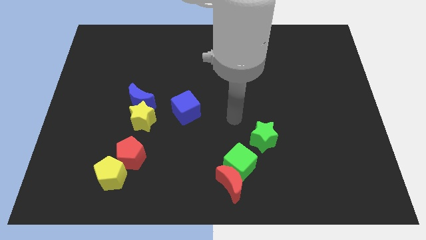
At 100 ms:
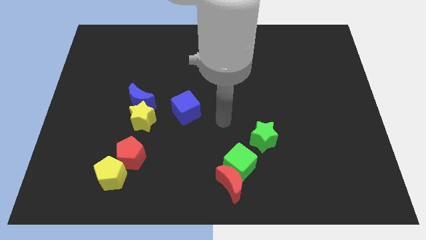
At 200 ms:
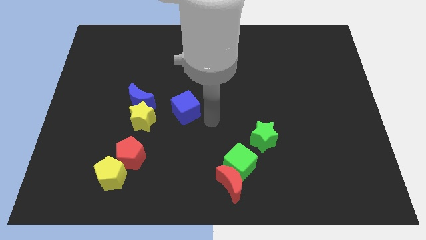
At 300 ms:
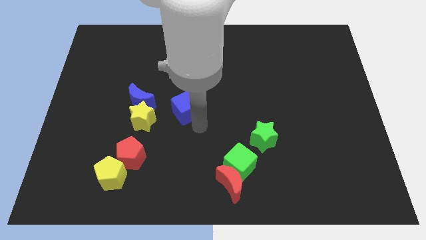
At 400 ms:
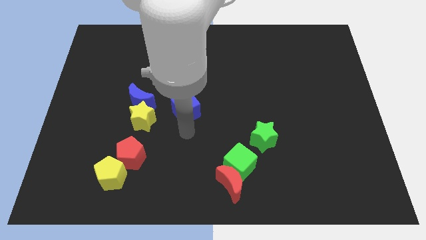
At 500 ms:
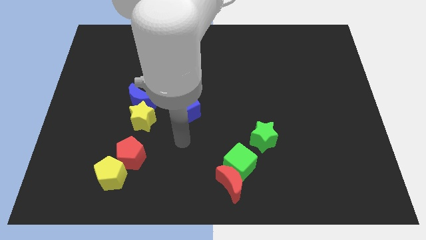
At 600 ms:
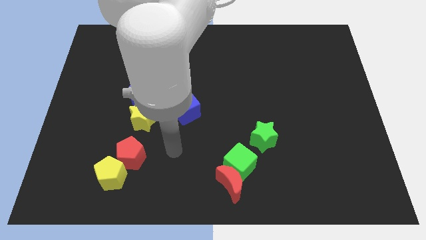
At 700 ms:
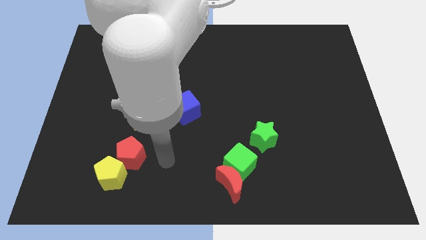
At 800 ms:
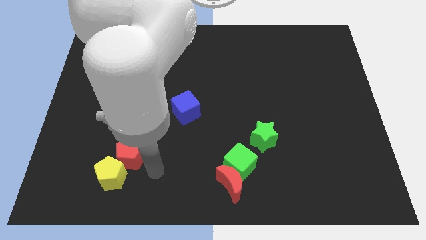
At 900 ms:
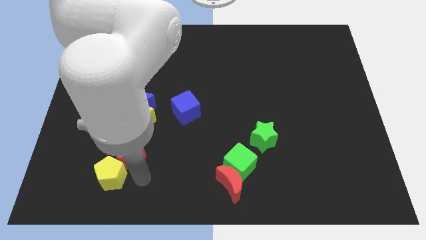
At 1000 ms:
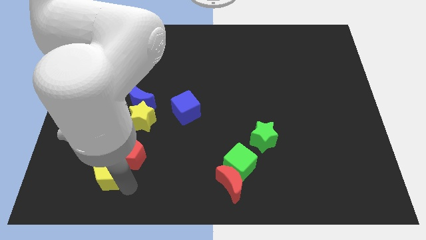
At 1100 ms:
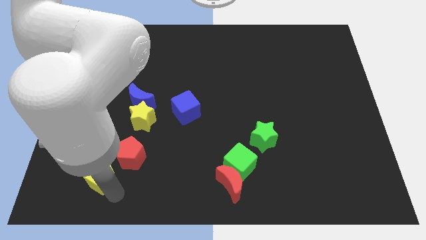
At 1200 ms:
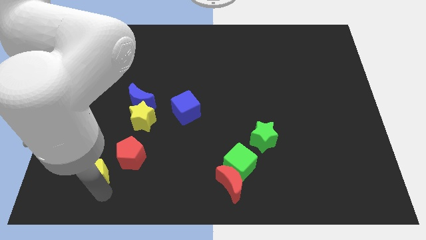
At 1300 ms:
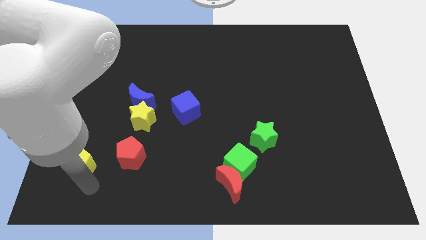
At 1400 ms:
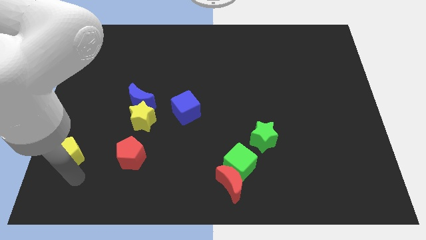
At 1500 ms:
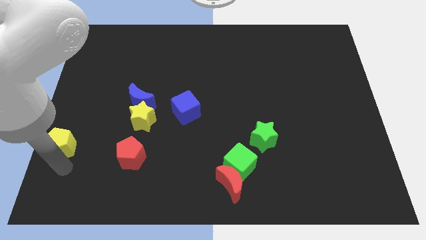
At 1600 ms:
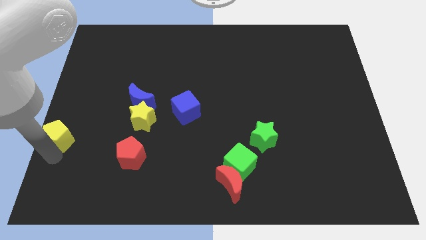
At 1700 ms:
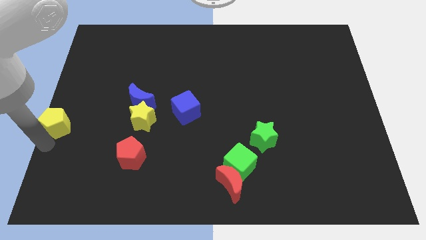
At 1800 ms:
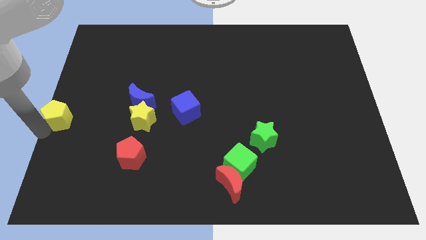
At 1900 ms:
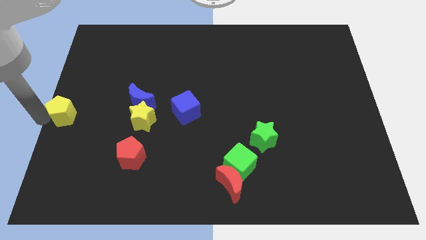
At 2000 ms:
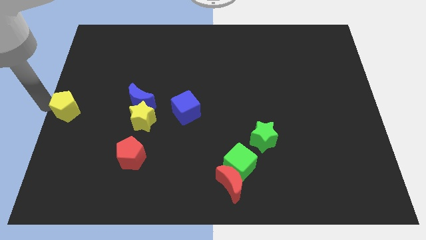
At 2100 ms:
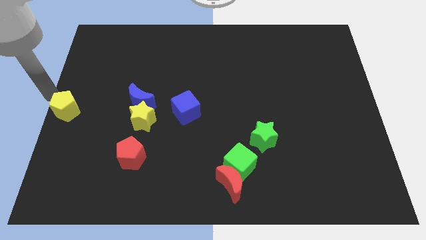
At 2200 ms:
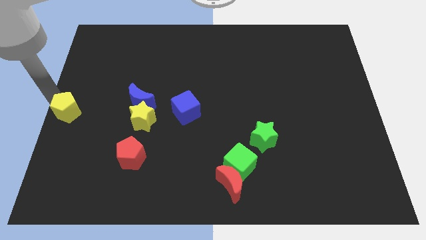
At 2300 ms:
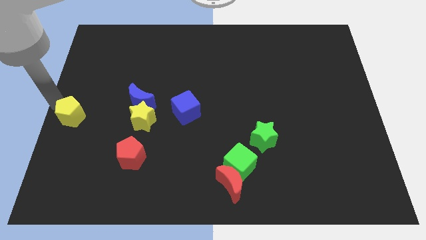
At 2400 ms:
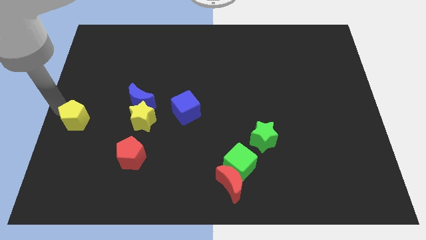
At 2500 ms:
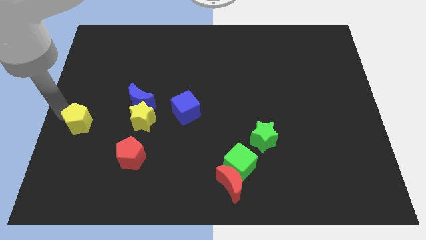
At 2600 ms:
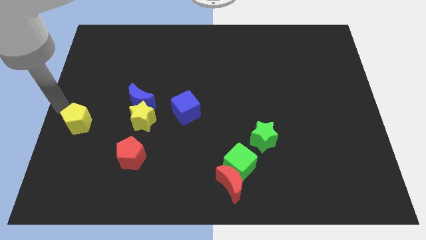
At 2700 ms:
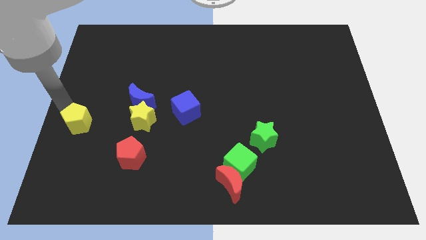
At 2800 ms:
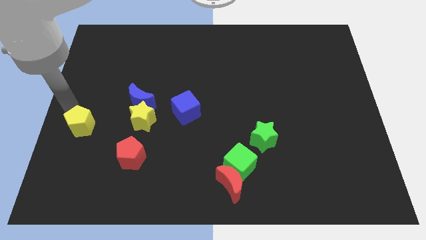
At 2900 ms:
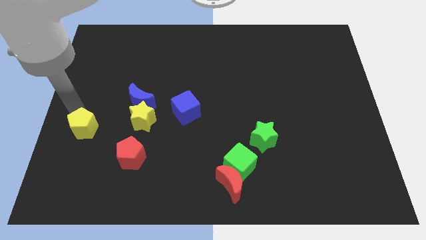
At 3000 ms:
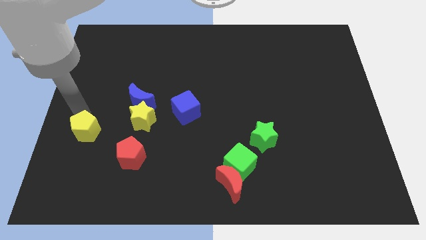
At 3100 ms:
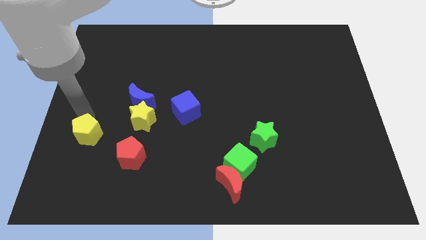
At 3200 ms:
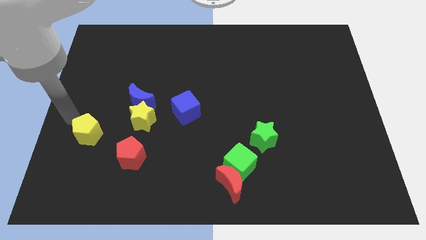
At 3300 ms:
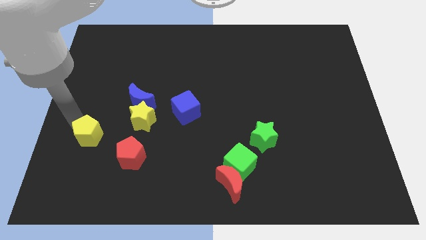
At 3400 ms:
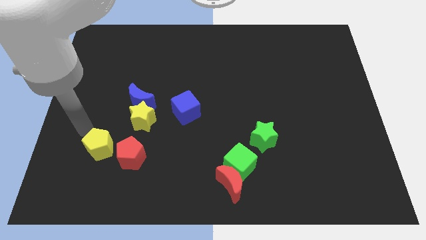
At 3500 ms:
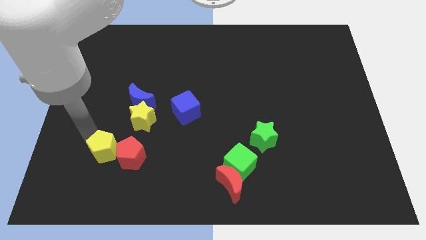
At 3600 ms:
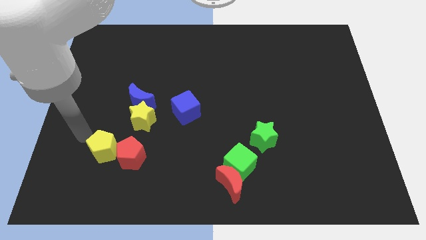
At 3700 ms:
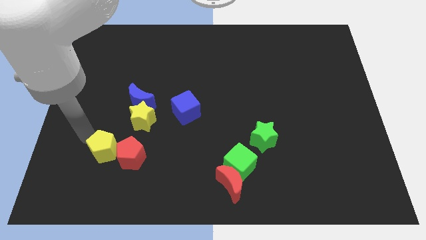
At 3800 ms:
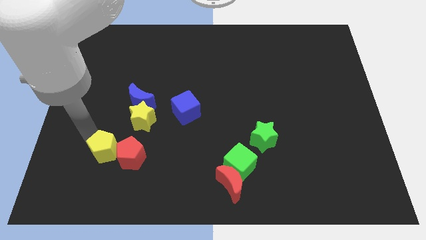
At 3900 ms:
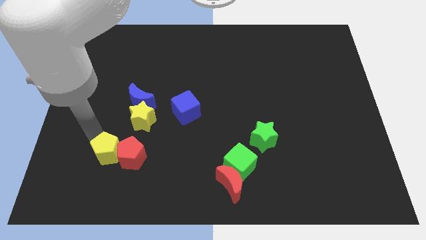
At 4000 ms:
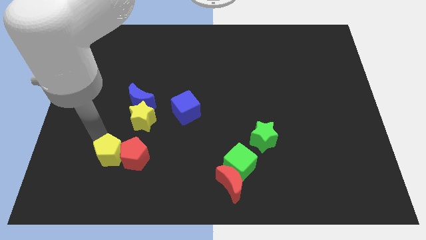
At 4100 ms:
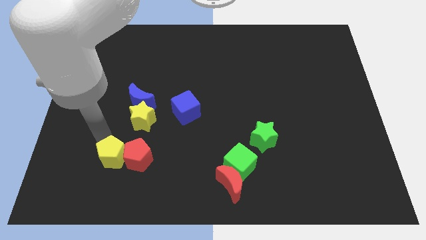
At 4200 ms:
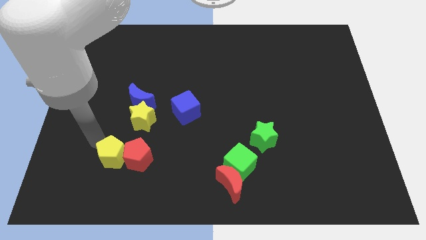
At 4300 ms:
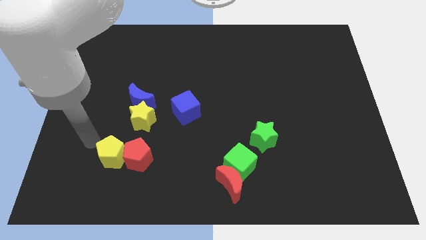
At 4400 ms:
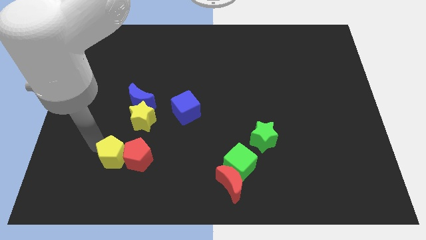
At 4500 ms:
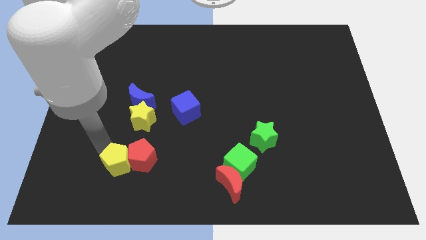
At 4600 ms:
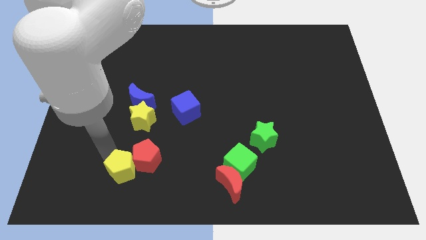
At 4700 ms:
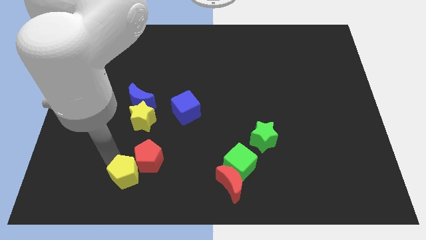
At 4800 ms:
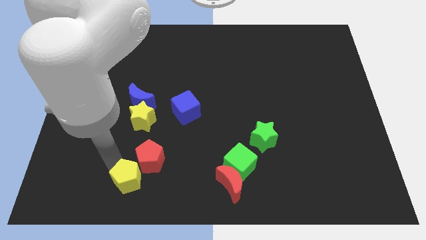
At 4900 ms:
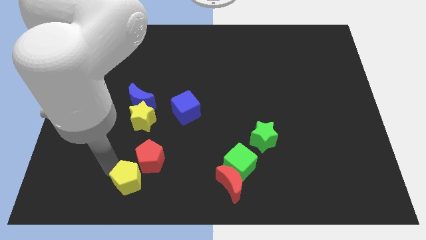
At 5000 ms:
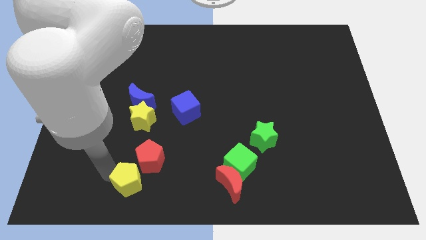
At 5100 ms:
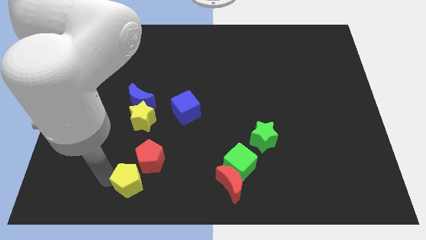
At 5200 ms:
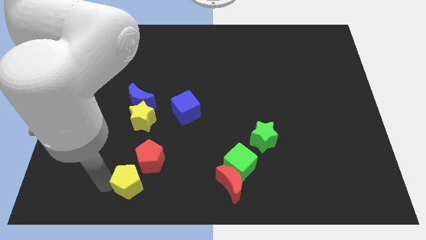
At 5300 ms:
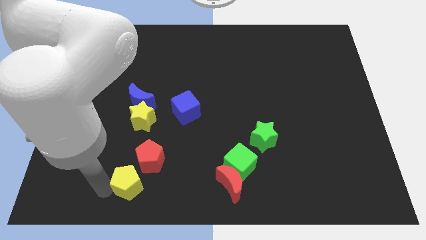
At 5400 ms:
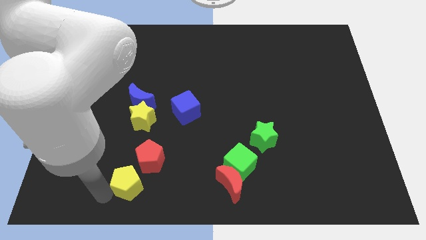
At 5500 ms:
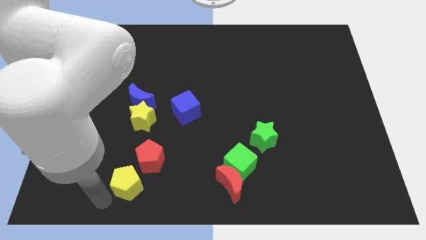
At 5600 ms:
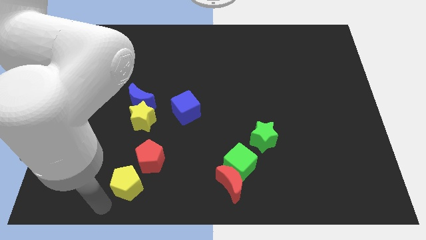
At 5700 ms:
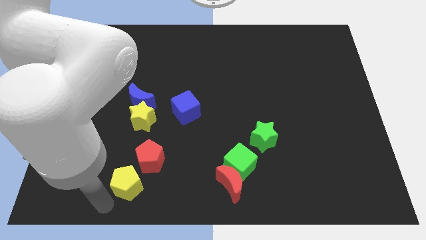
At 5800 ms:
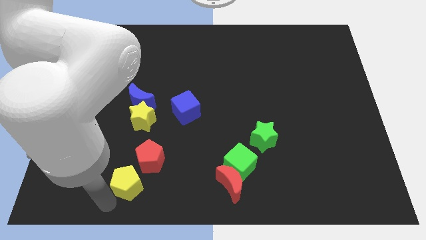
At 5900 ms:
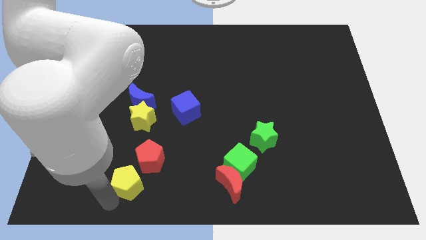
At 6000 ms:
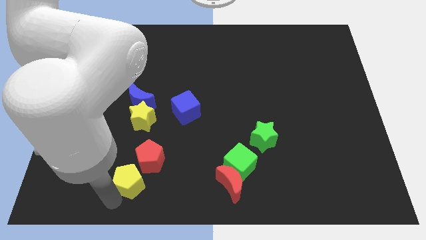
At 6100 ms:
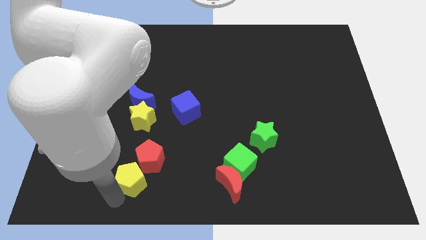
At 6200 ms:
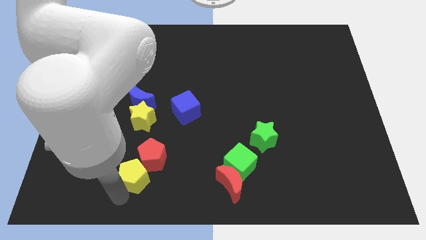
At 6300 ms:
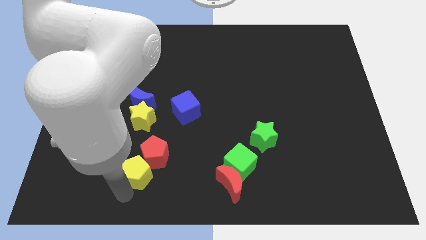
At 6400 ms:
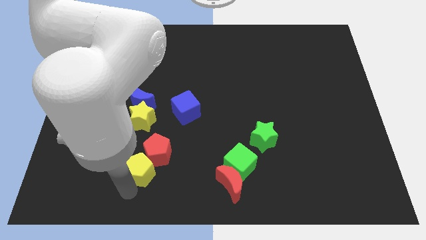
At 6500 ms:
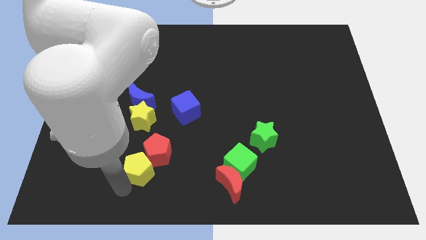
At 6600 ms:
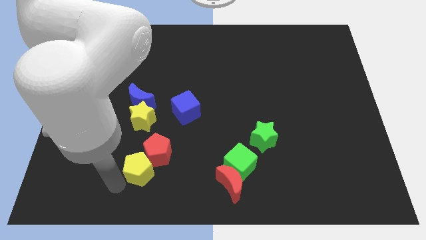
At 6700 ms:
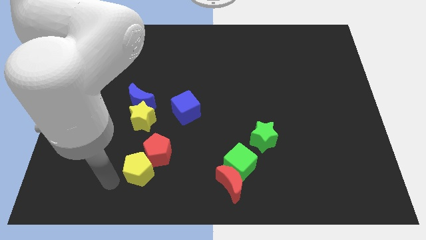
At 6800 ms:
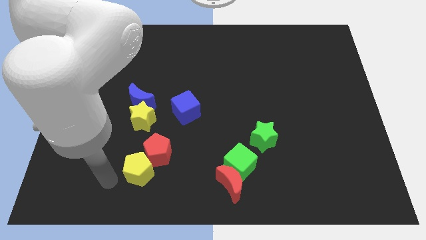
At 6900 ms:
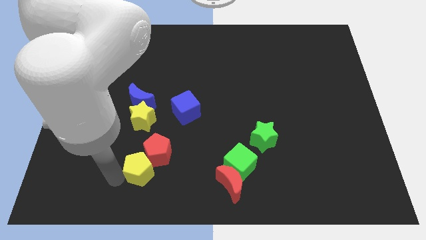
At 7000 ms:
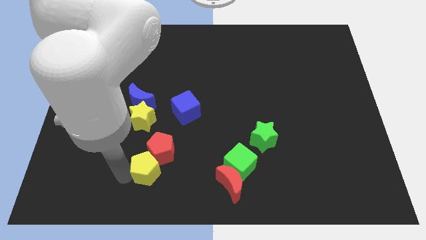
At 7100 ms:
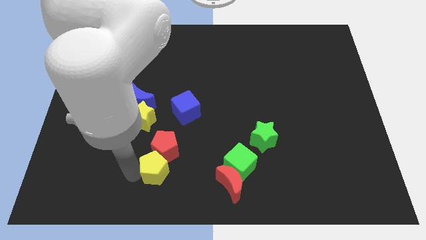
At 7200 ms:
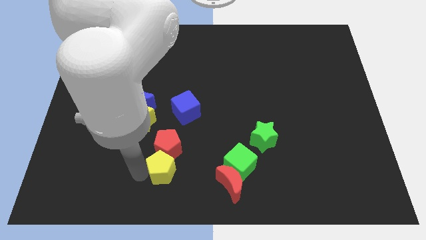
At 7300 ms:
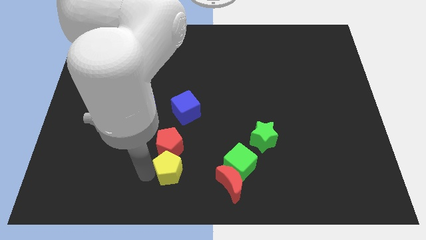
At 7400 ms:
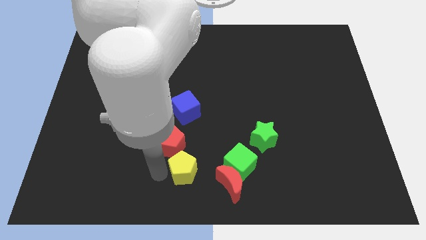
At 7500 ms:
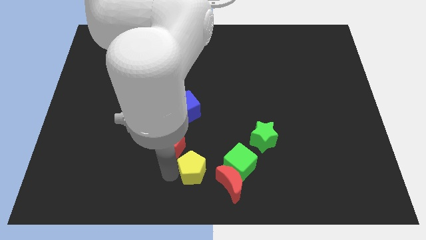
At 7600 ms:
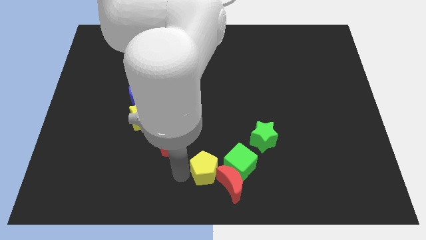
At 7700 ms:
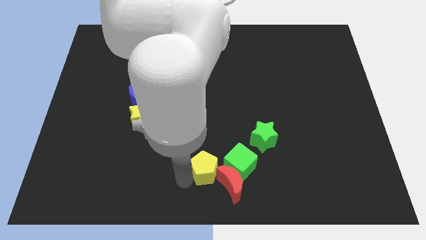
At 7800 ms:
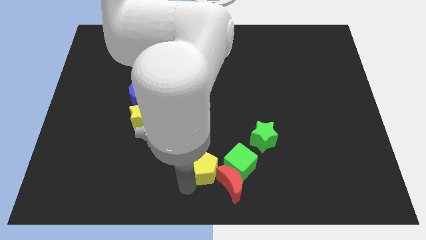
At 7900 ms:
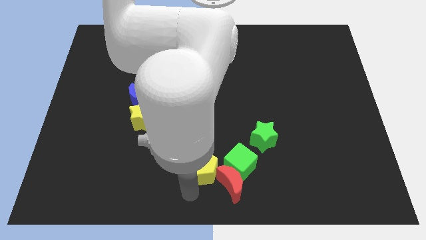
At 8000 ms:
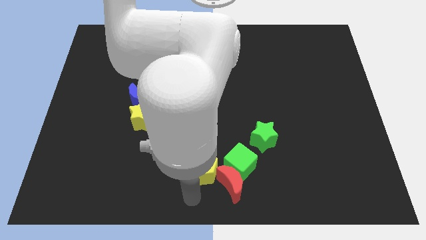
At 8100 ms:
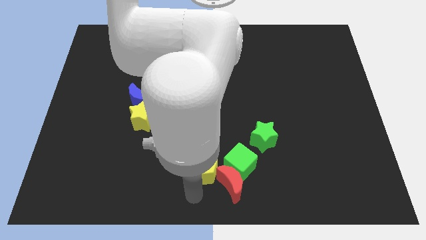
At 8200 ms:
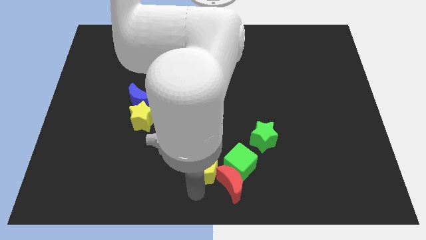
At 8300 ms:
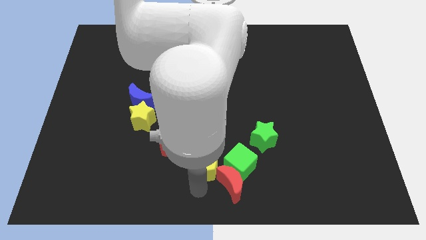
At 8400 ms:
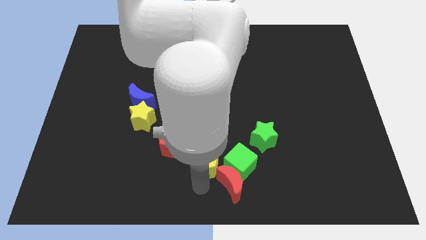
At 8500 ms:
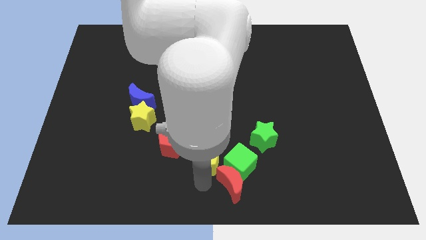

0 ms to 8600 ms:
put the yellow pentagon diagonally up and to the left of the green cube
